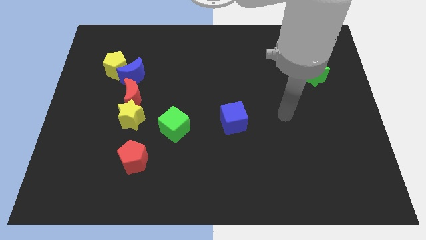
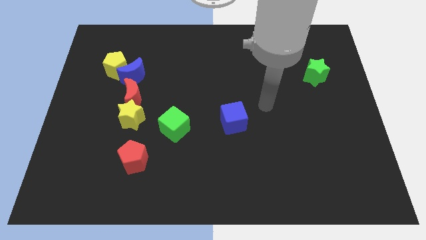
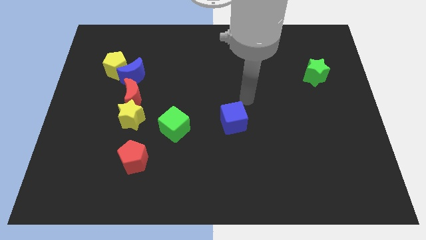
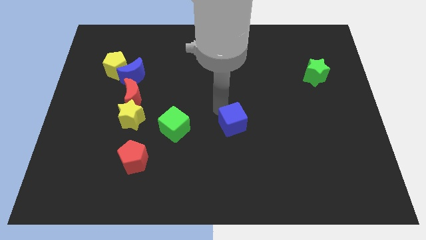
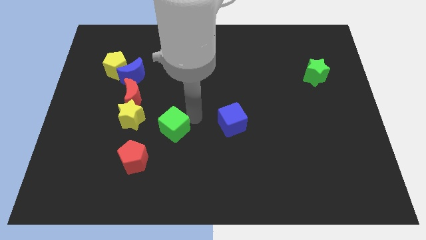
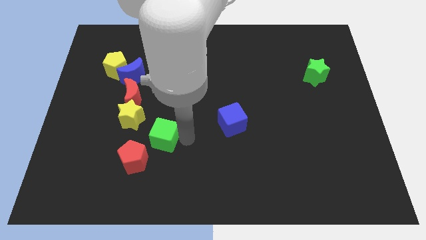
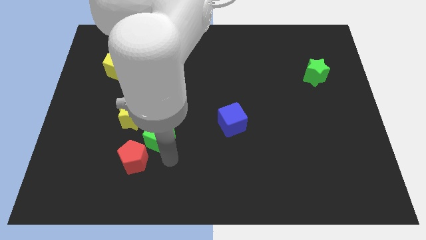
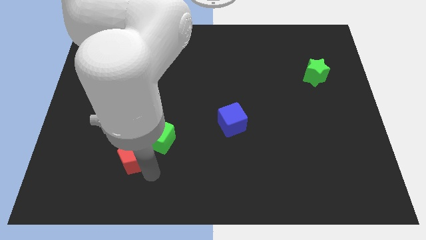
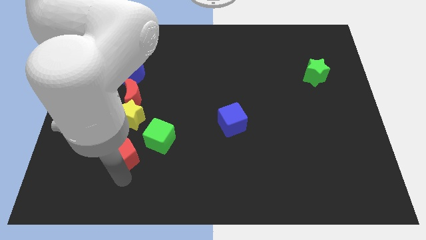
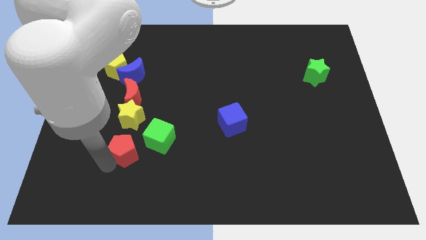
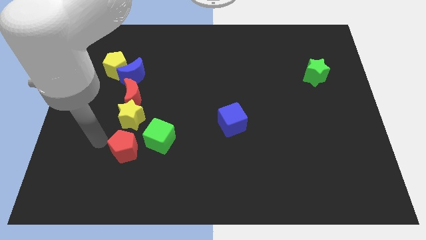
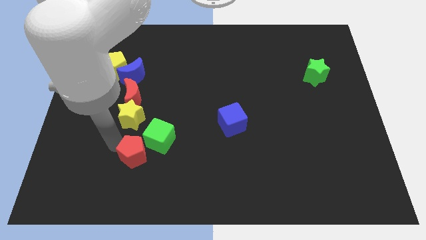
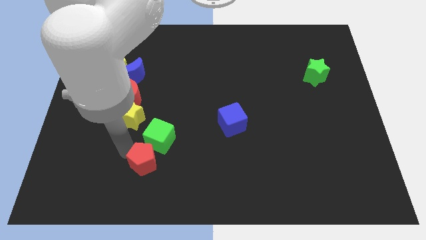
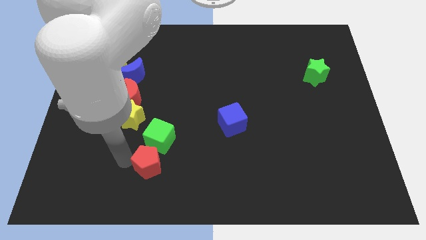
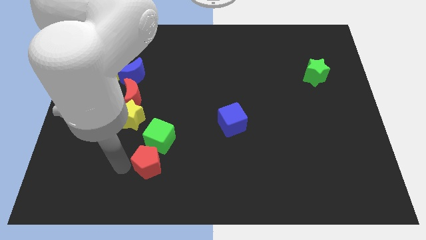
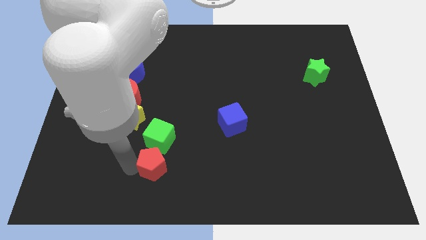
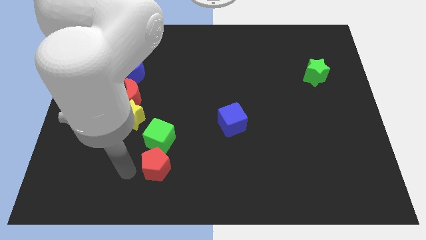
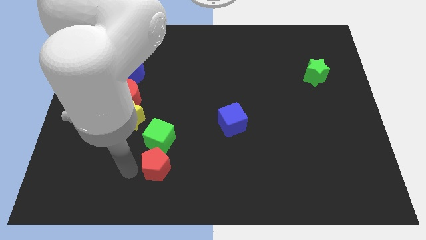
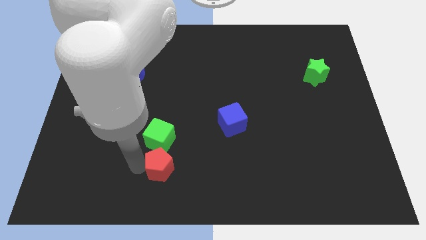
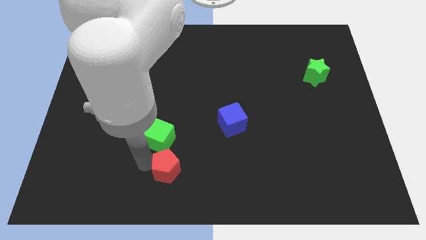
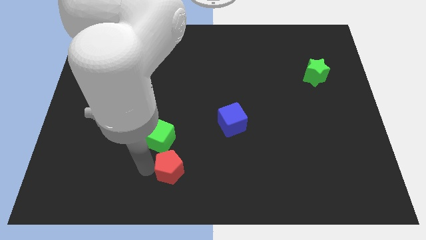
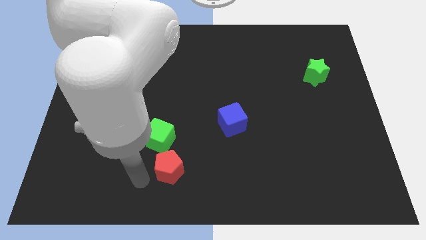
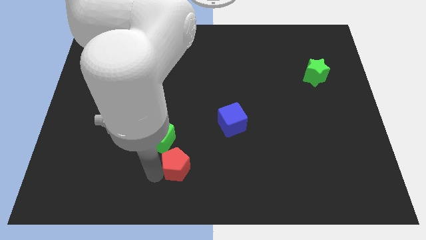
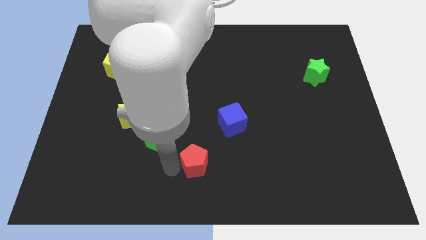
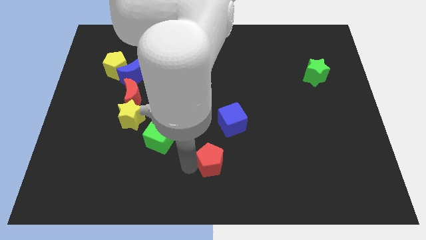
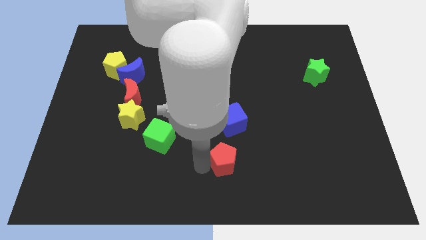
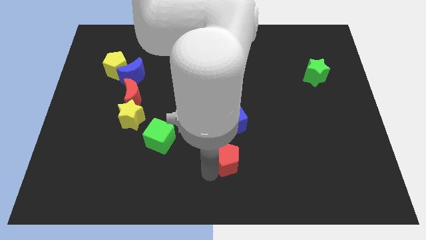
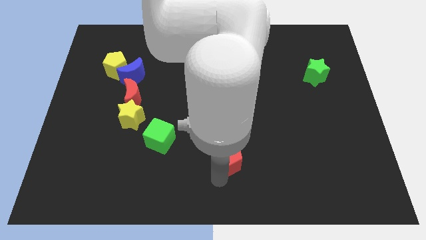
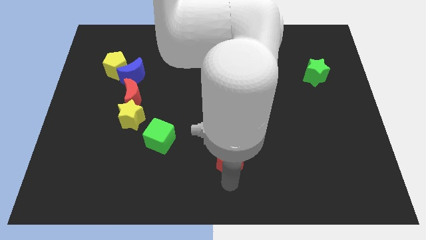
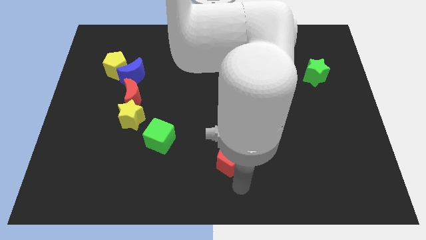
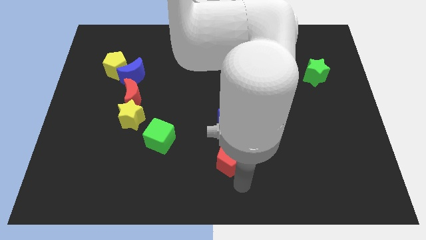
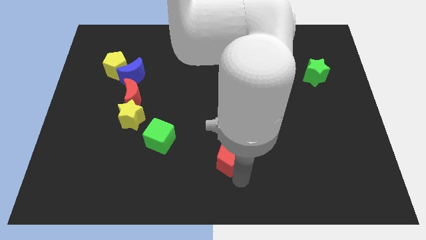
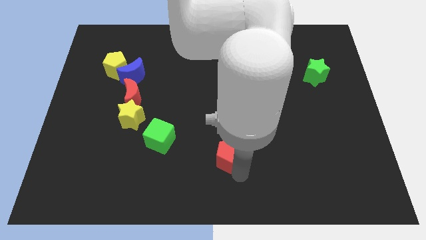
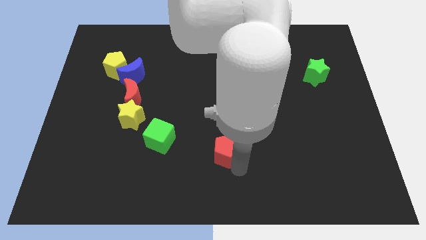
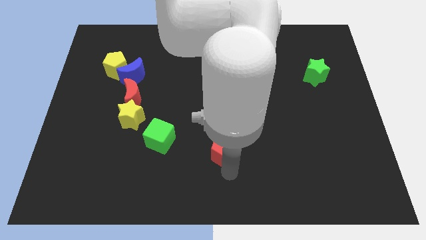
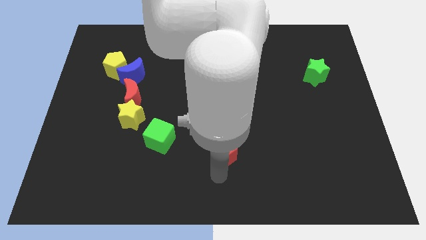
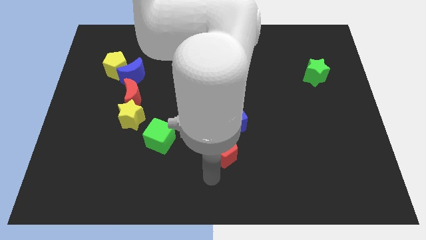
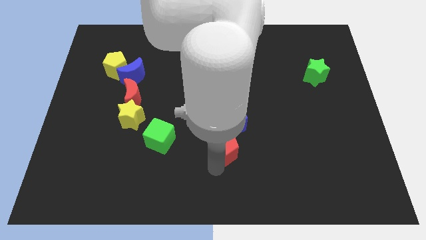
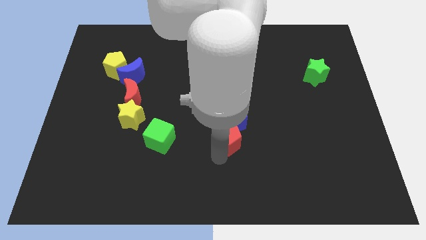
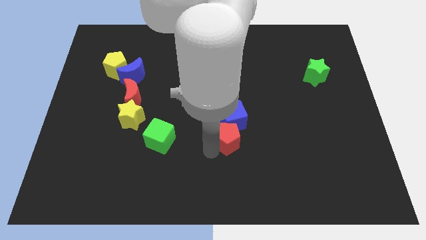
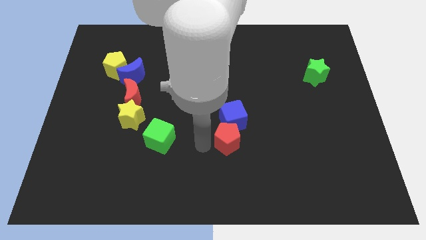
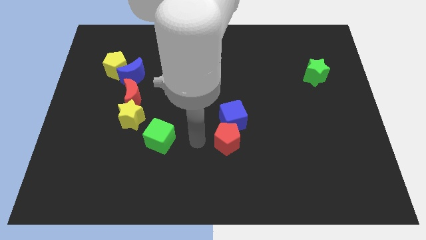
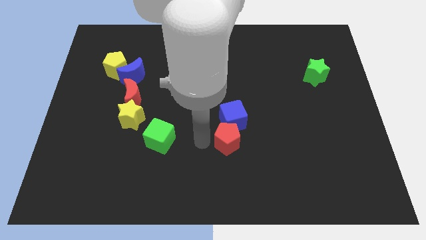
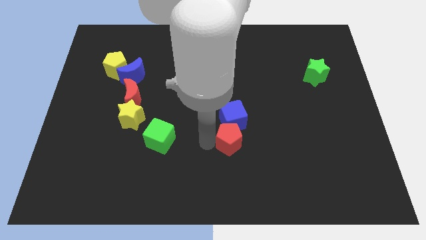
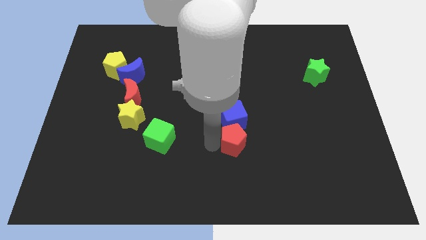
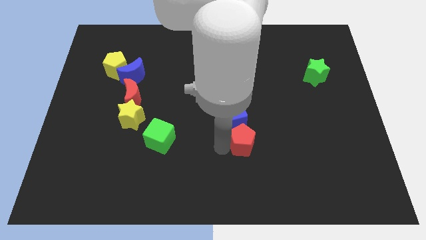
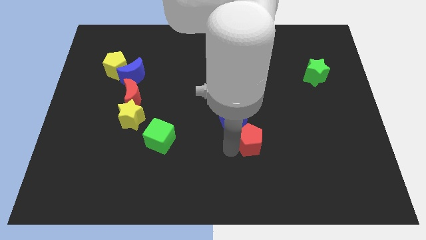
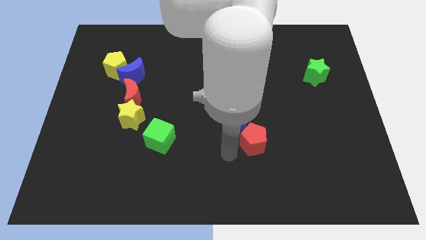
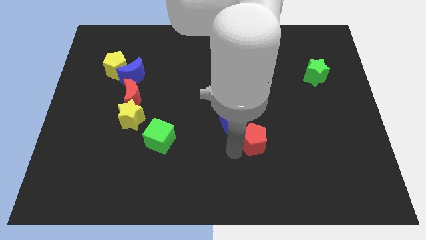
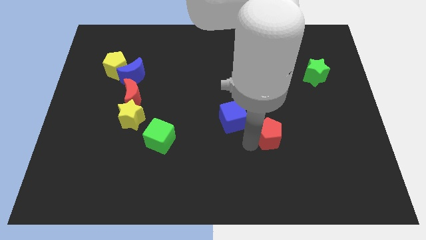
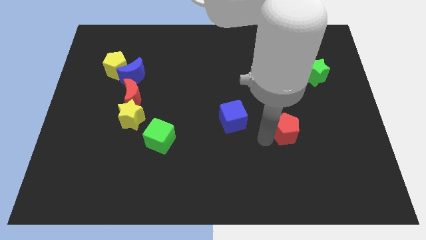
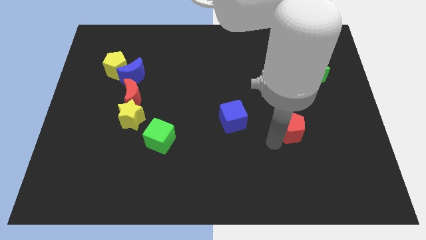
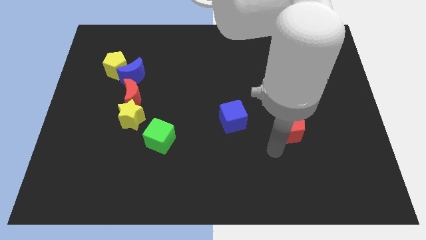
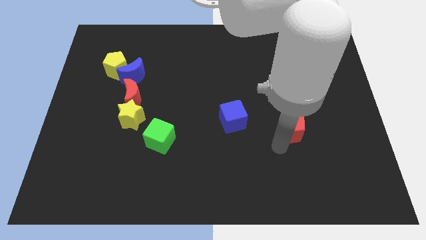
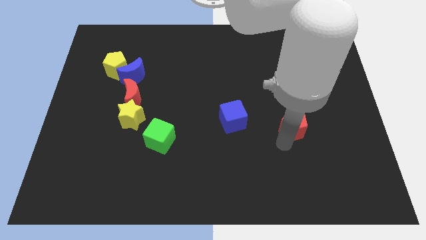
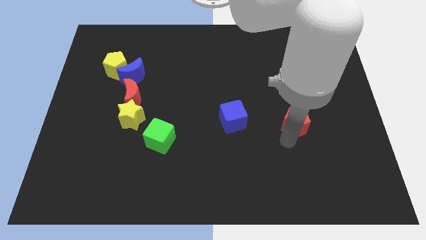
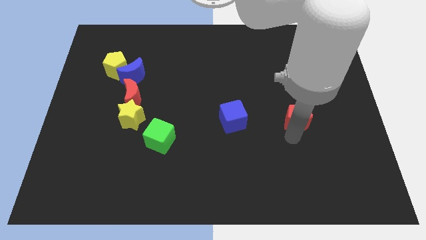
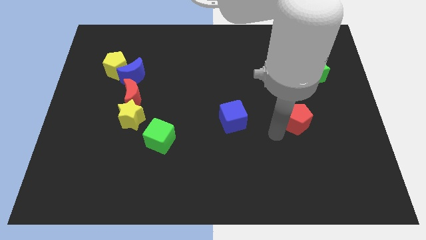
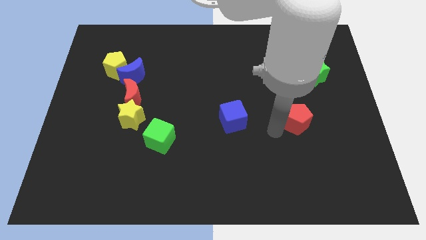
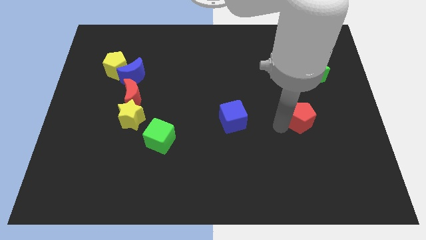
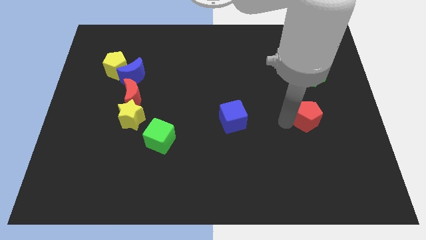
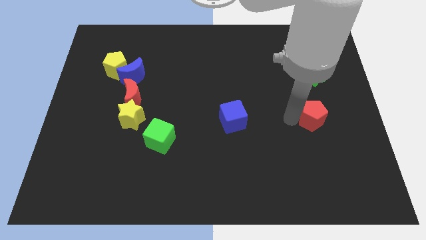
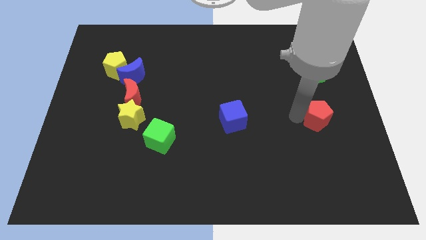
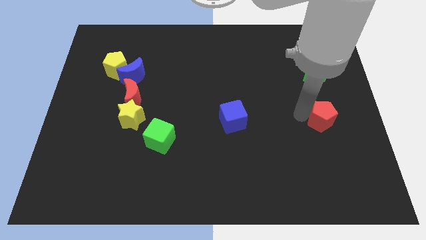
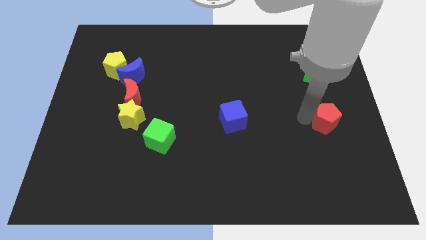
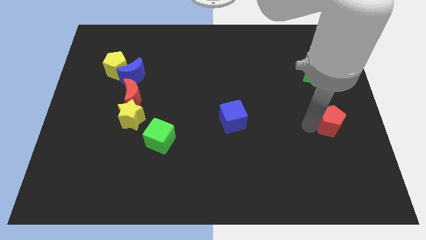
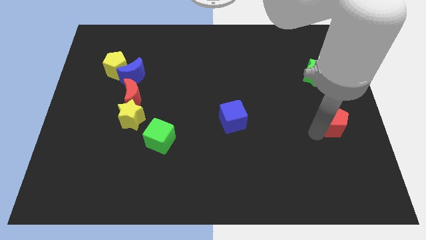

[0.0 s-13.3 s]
move the red pentagon to the right side
